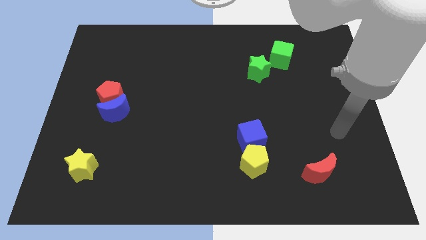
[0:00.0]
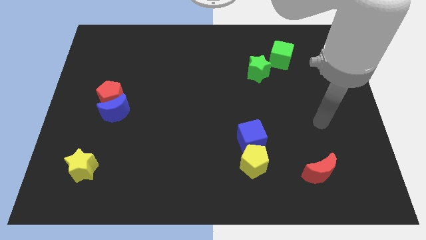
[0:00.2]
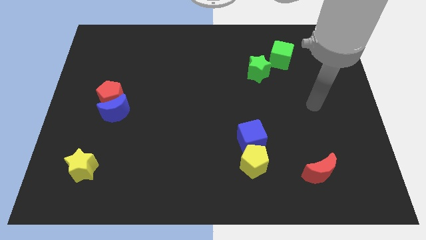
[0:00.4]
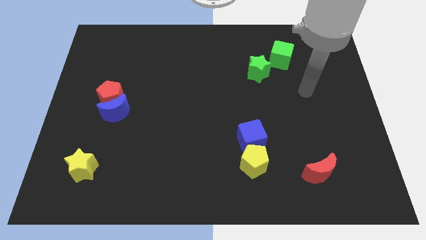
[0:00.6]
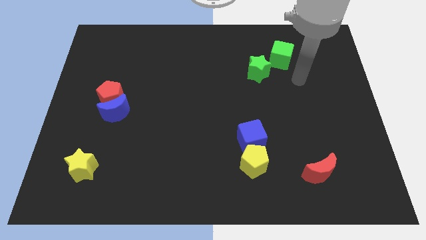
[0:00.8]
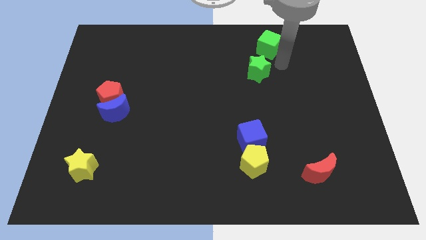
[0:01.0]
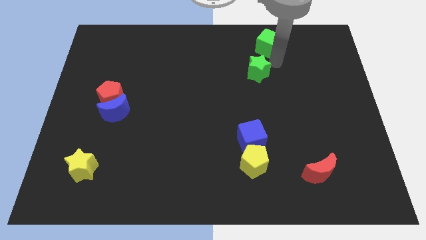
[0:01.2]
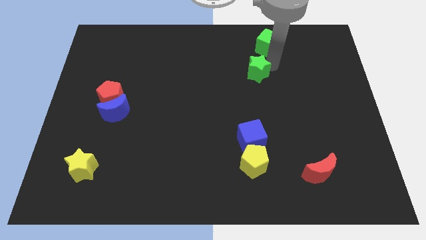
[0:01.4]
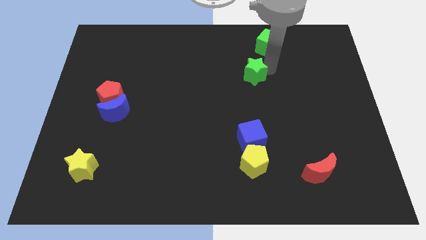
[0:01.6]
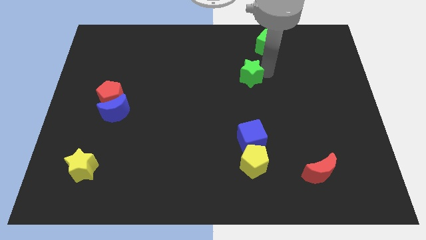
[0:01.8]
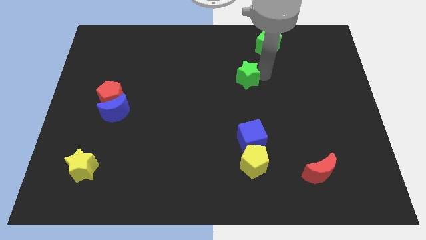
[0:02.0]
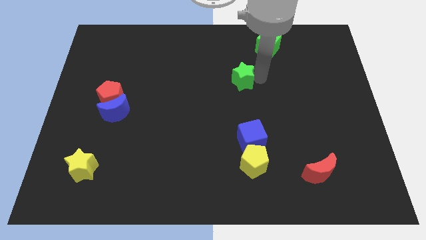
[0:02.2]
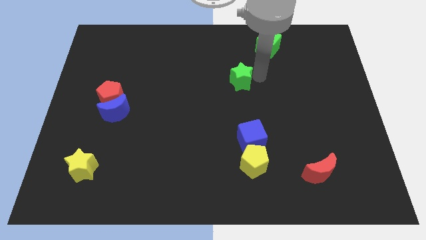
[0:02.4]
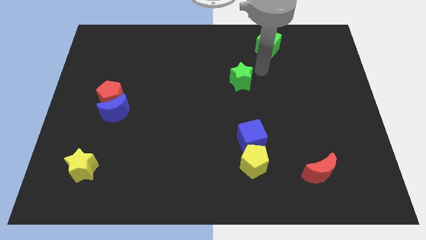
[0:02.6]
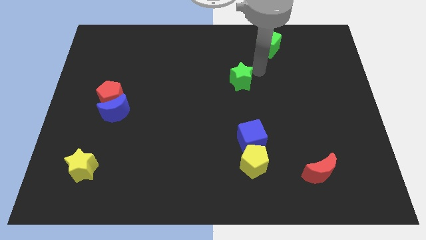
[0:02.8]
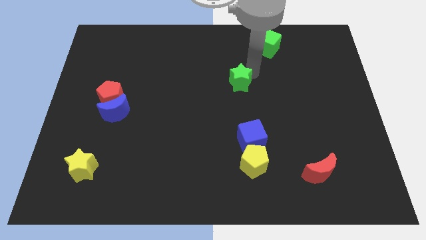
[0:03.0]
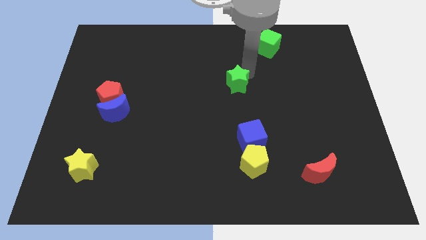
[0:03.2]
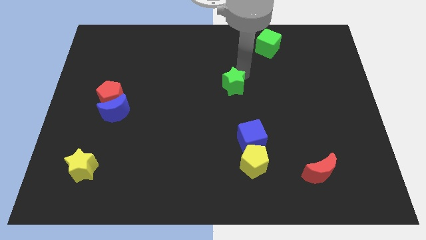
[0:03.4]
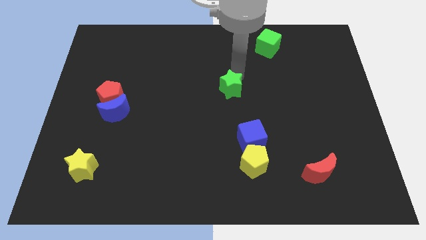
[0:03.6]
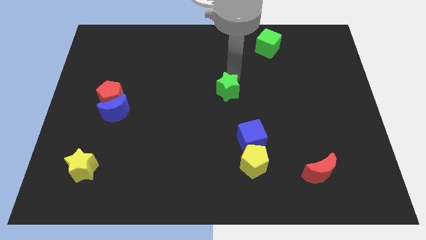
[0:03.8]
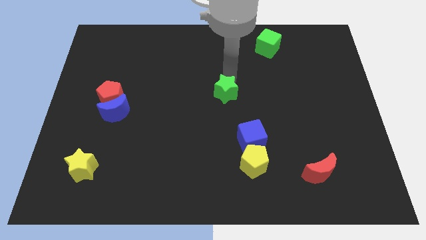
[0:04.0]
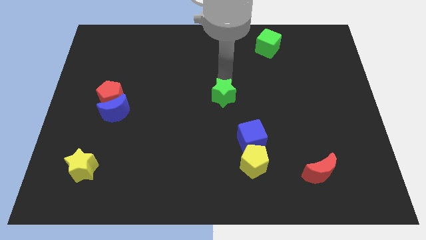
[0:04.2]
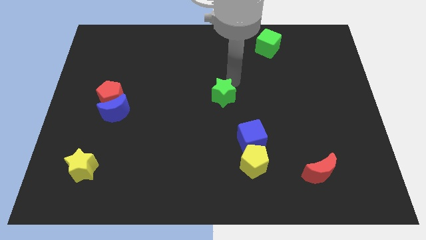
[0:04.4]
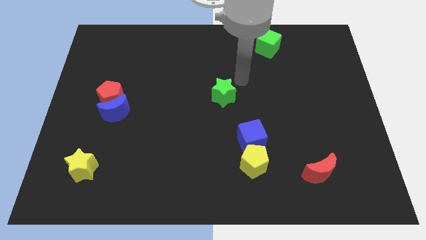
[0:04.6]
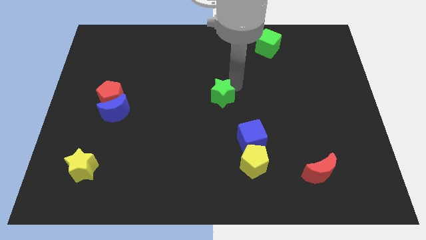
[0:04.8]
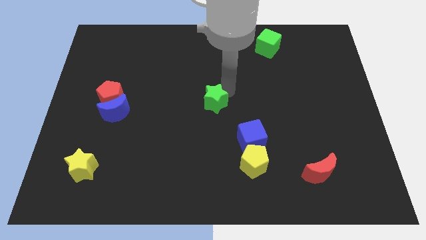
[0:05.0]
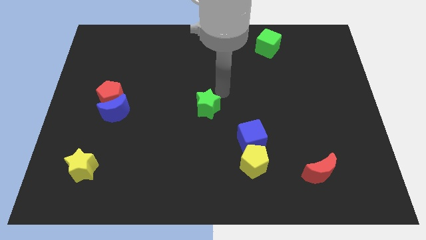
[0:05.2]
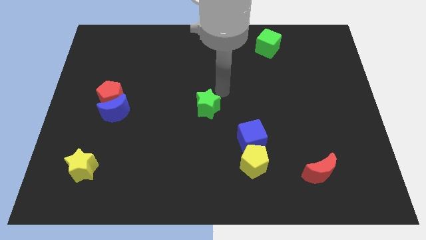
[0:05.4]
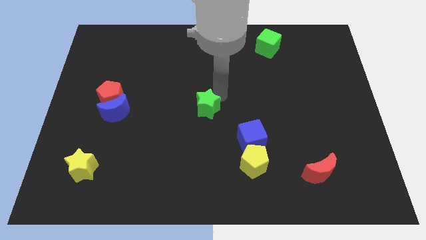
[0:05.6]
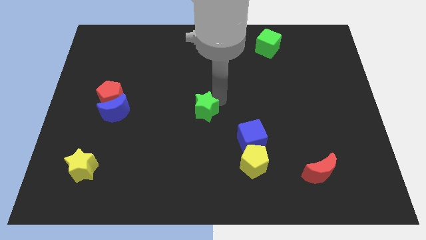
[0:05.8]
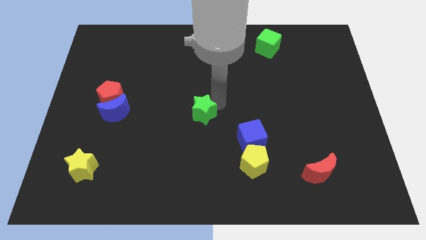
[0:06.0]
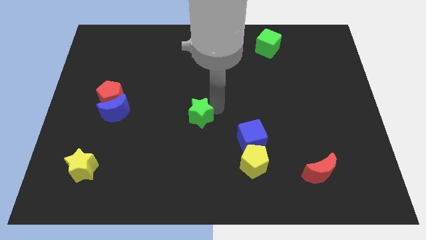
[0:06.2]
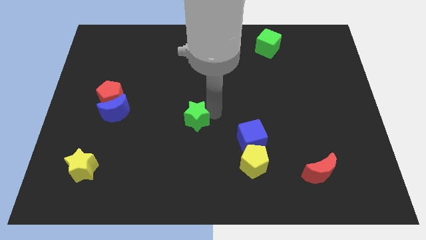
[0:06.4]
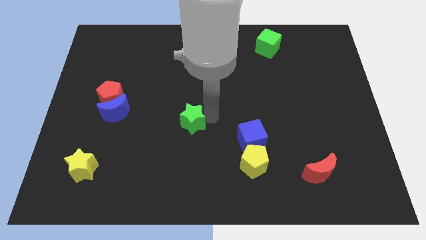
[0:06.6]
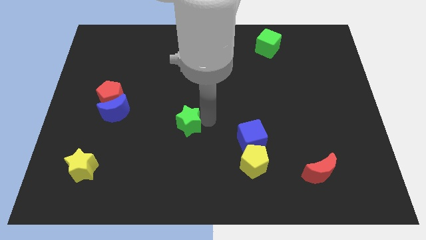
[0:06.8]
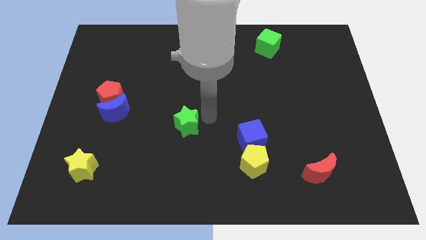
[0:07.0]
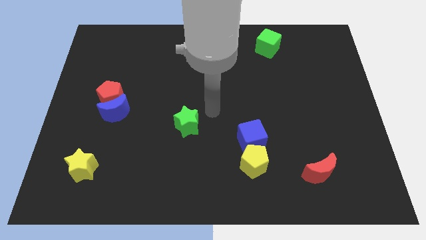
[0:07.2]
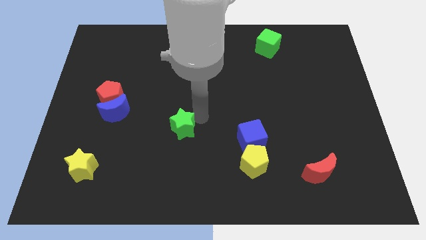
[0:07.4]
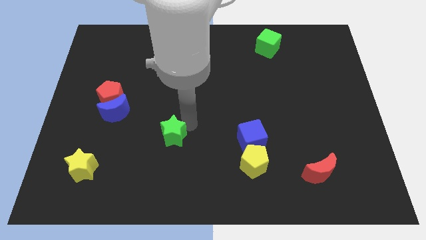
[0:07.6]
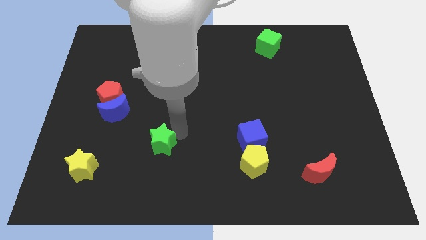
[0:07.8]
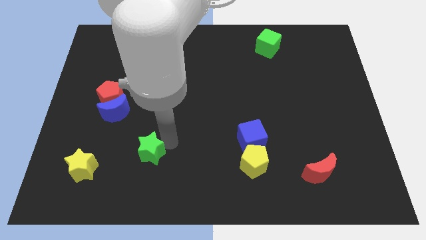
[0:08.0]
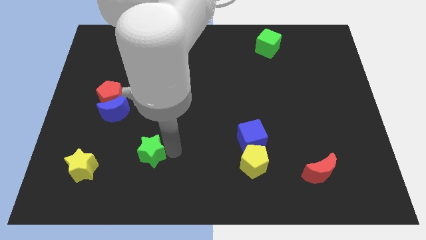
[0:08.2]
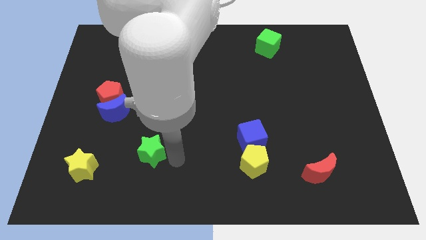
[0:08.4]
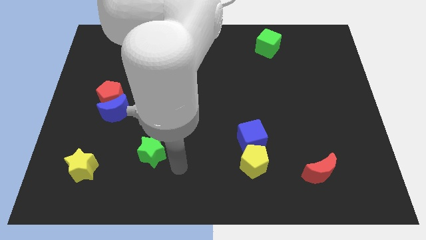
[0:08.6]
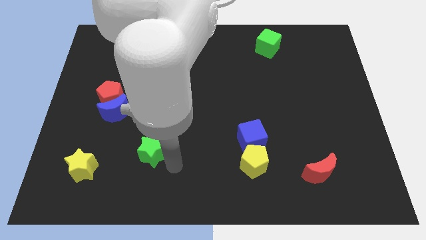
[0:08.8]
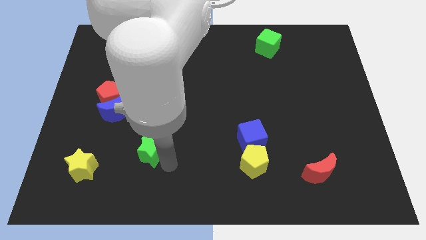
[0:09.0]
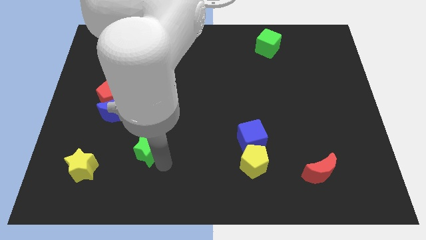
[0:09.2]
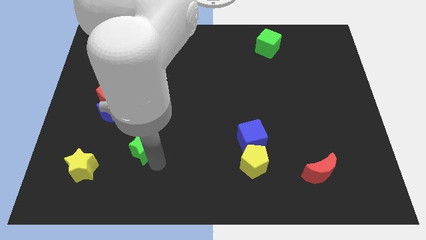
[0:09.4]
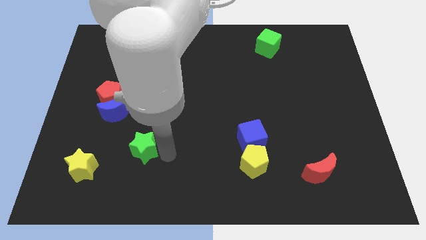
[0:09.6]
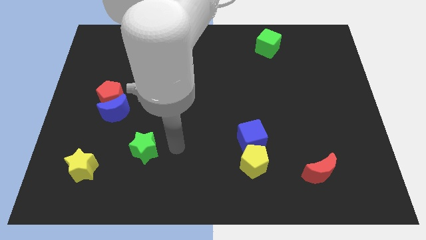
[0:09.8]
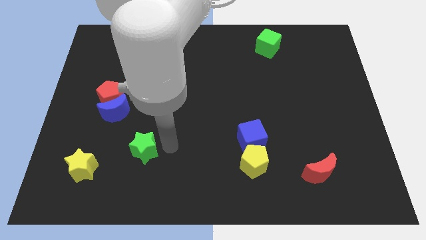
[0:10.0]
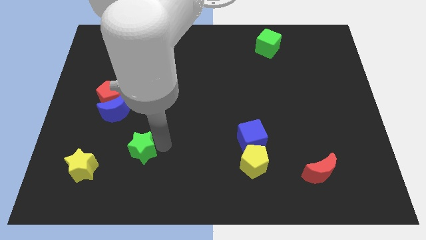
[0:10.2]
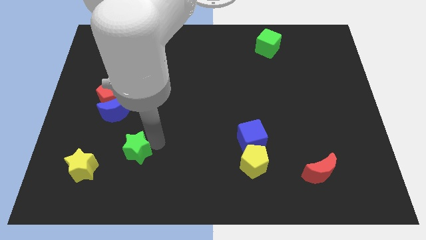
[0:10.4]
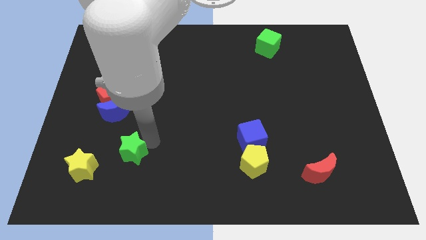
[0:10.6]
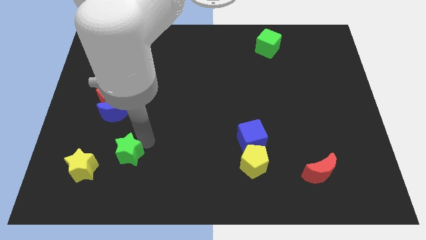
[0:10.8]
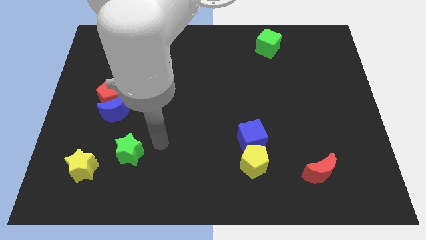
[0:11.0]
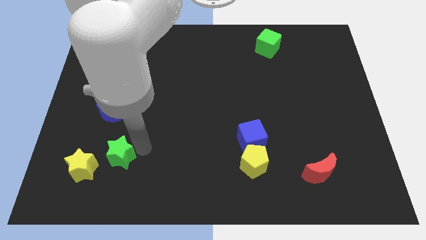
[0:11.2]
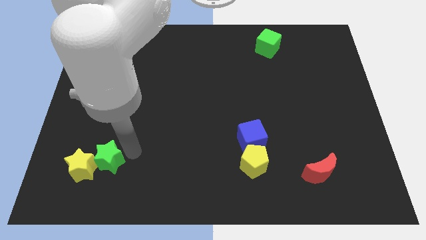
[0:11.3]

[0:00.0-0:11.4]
push the green star to the yellow star

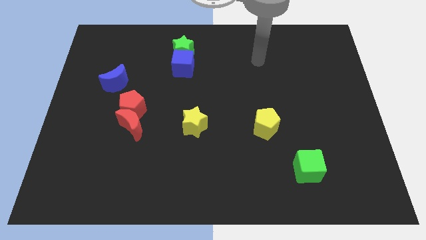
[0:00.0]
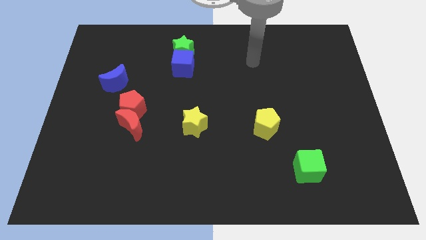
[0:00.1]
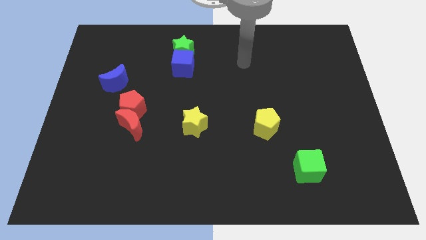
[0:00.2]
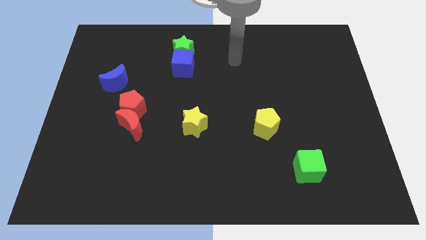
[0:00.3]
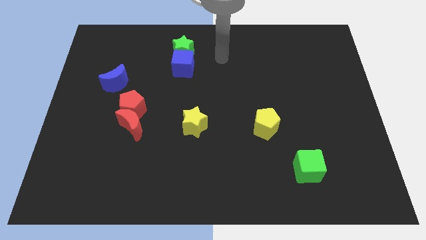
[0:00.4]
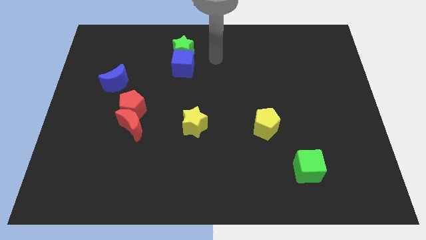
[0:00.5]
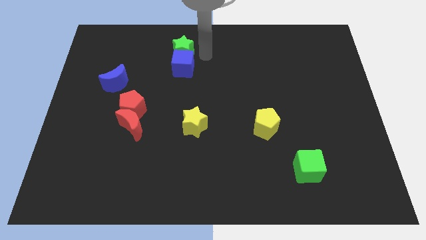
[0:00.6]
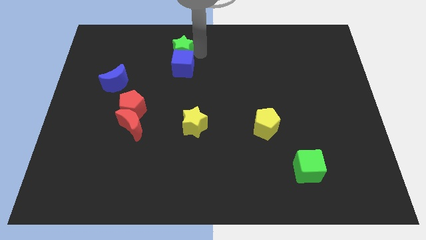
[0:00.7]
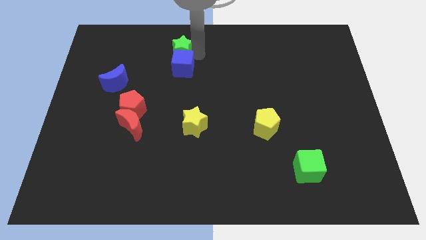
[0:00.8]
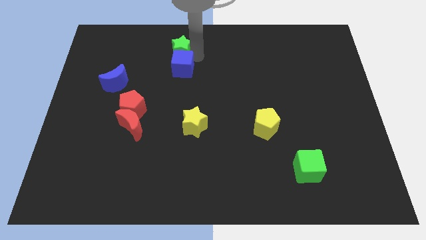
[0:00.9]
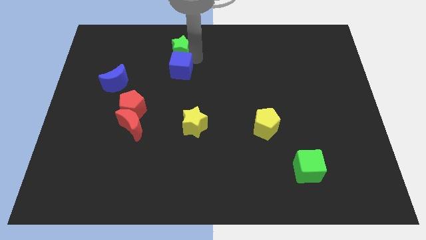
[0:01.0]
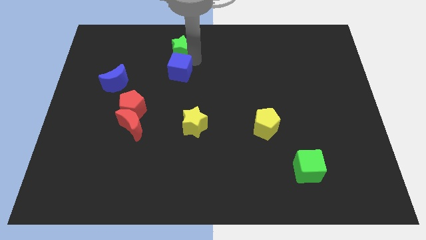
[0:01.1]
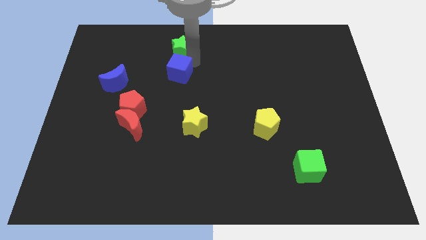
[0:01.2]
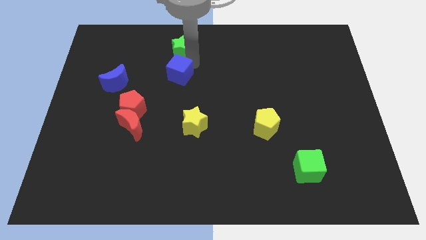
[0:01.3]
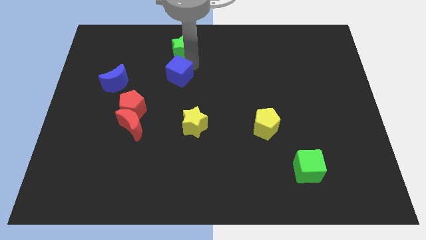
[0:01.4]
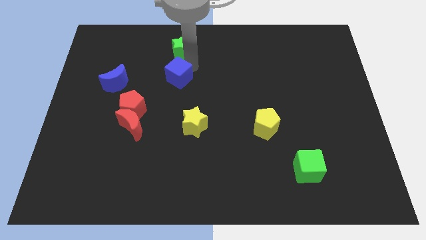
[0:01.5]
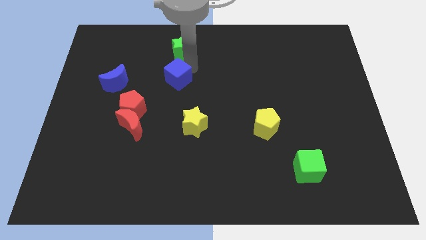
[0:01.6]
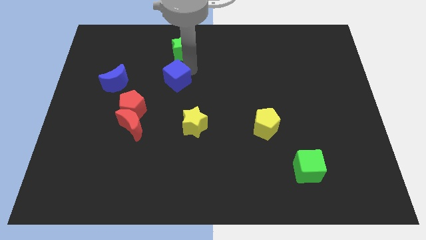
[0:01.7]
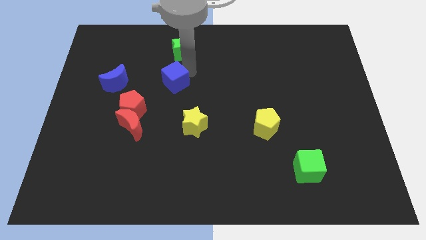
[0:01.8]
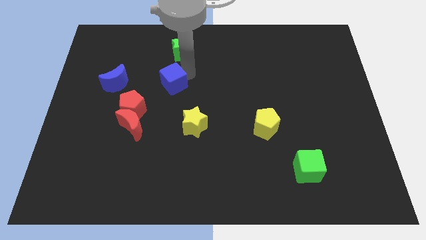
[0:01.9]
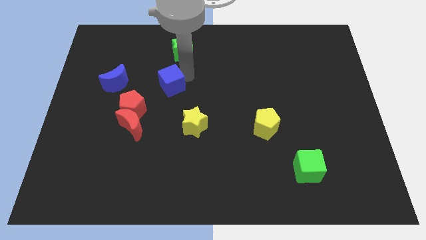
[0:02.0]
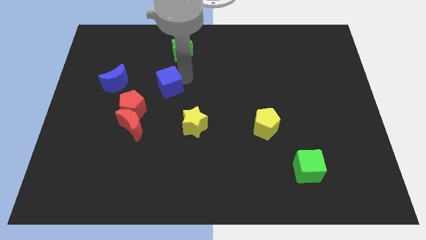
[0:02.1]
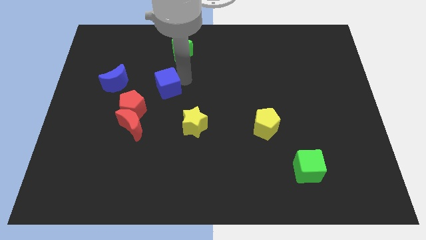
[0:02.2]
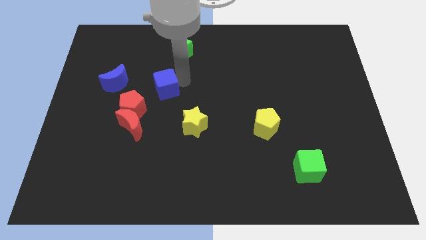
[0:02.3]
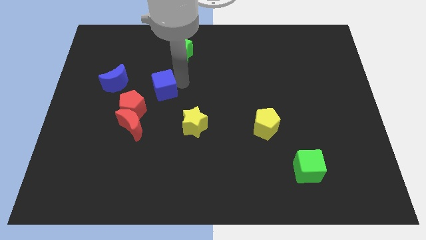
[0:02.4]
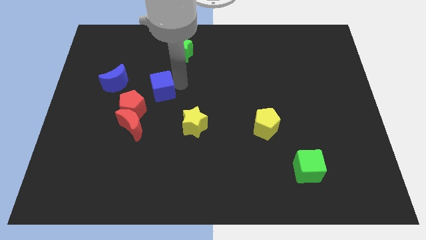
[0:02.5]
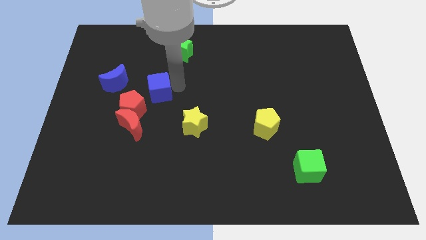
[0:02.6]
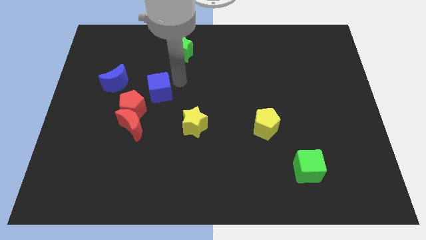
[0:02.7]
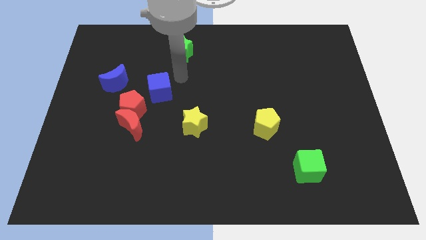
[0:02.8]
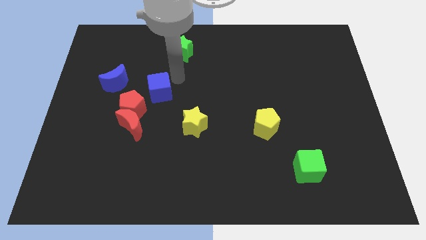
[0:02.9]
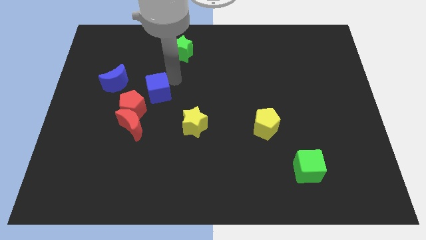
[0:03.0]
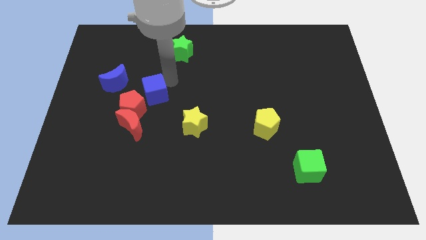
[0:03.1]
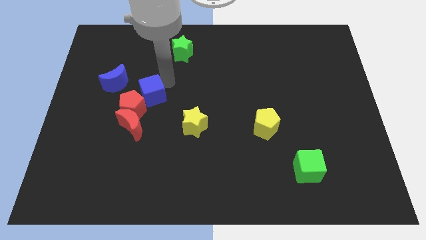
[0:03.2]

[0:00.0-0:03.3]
move the blue cube to the red pentagon
